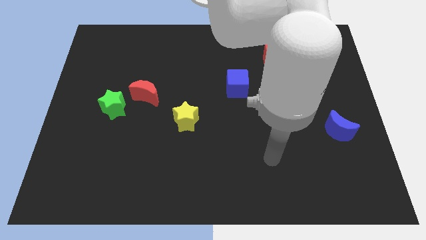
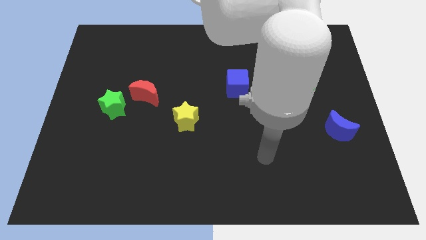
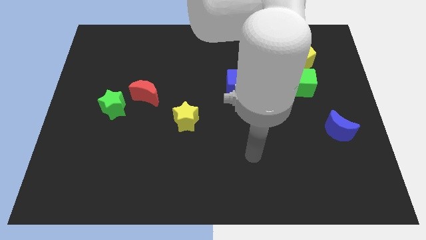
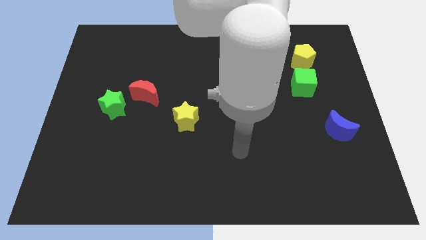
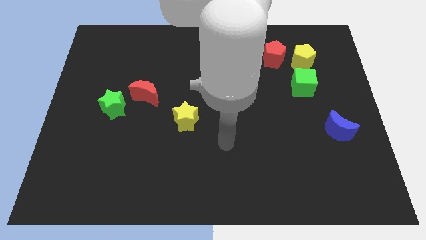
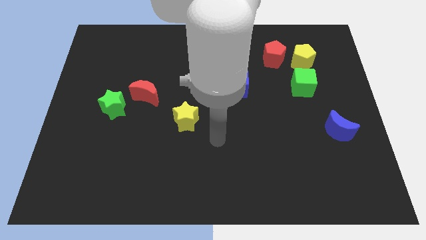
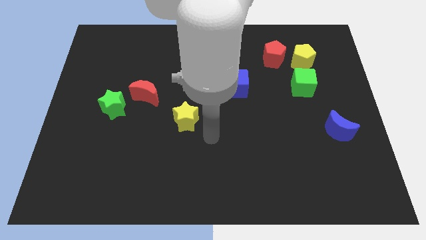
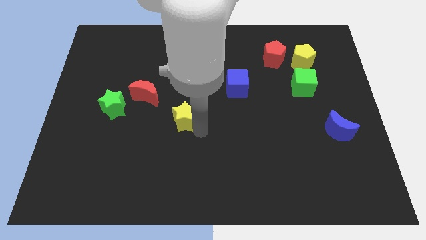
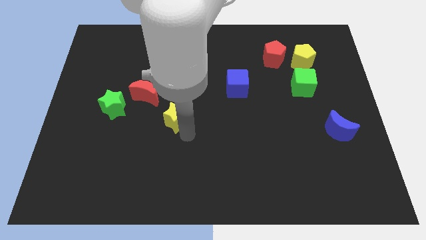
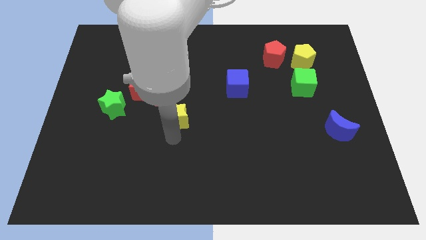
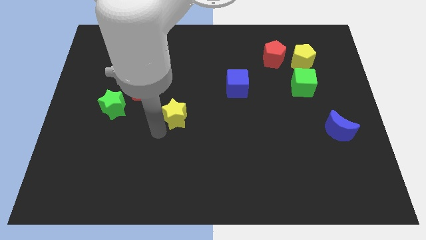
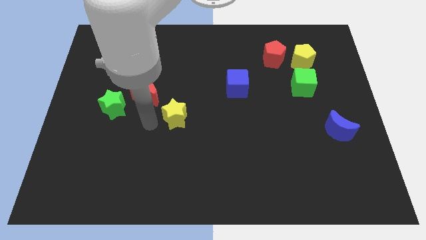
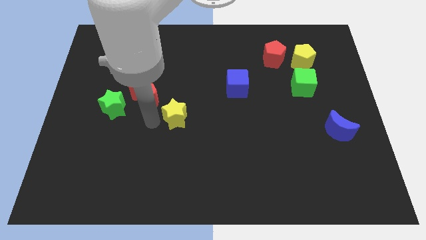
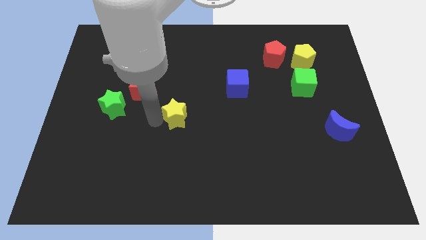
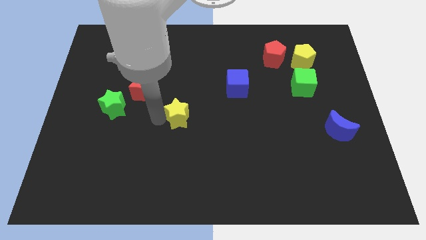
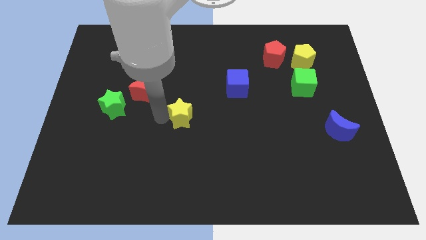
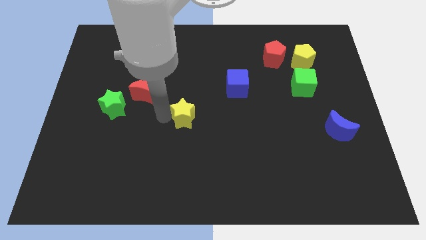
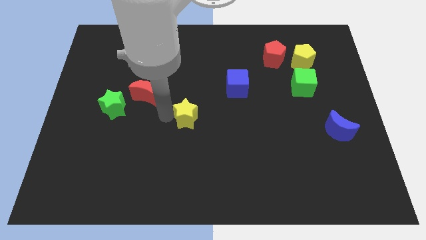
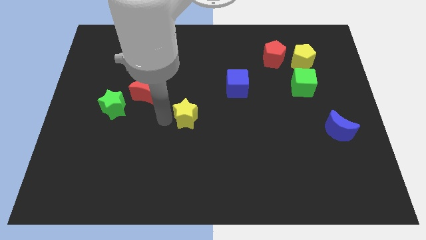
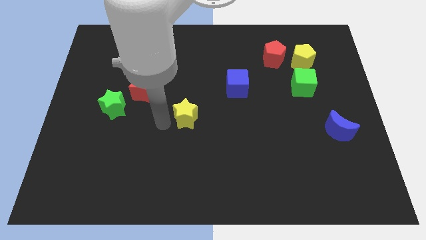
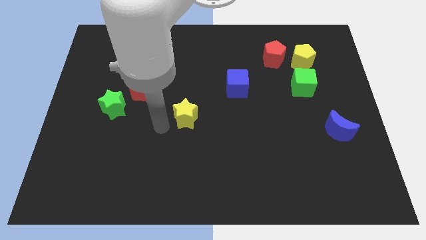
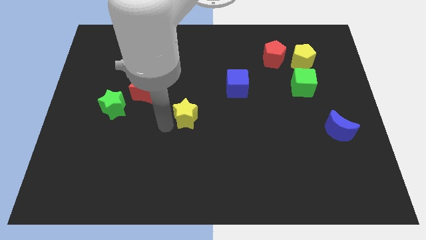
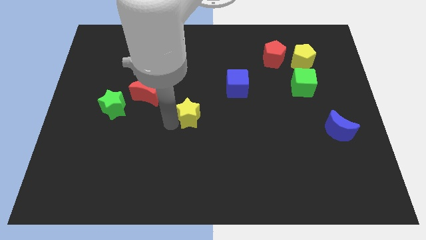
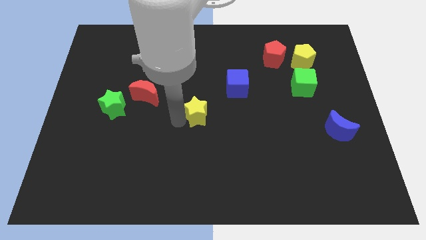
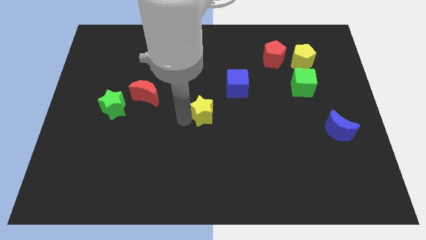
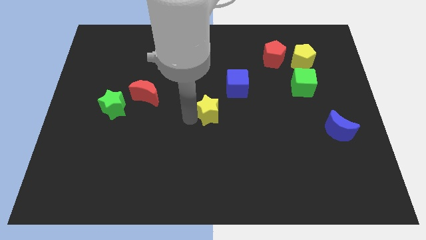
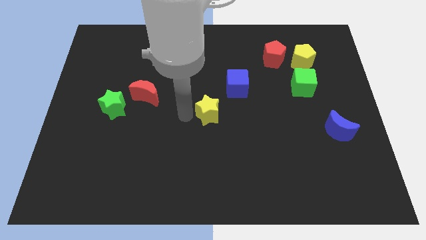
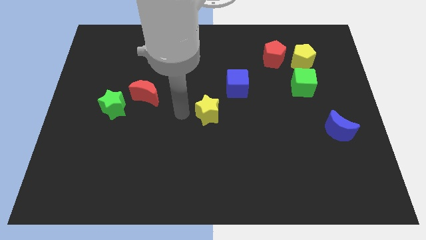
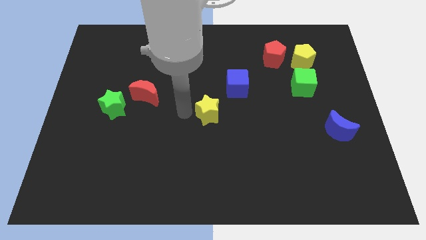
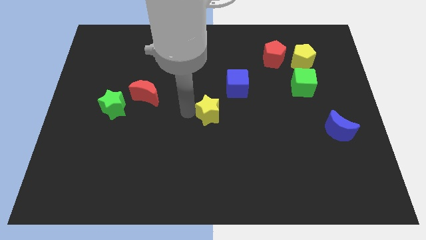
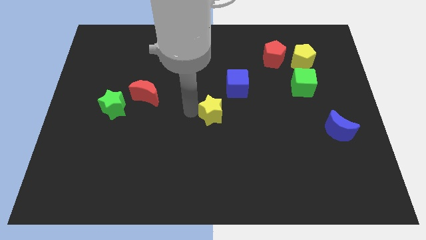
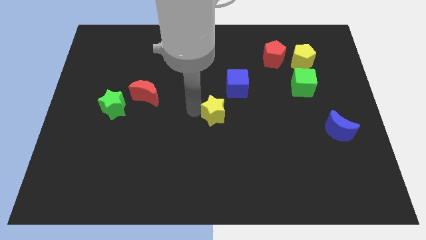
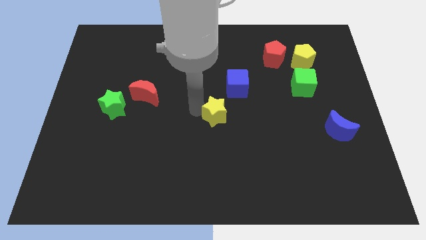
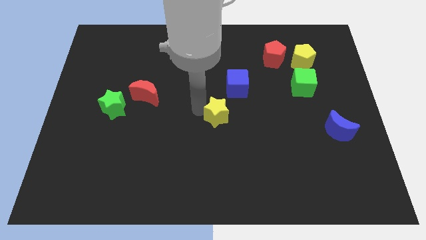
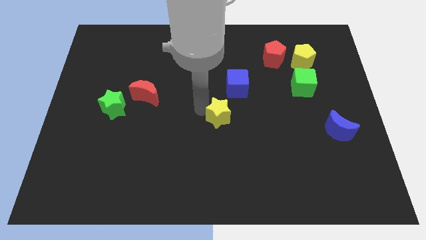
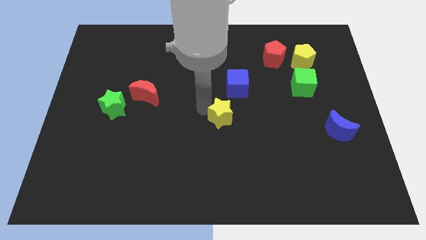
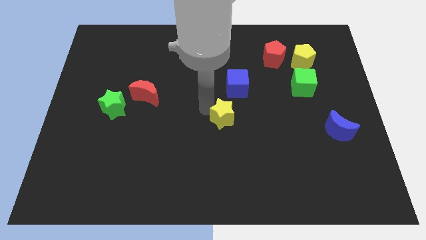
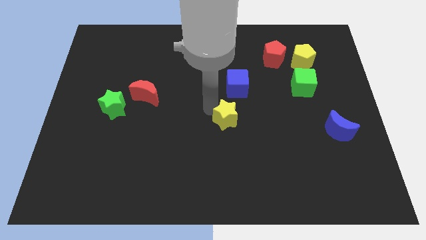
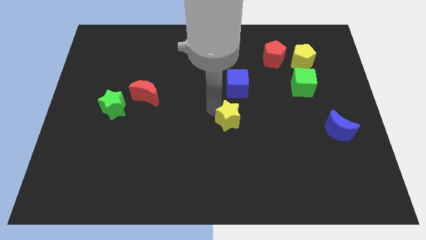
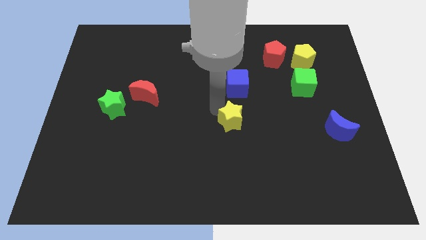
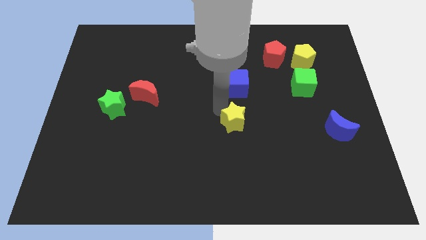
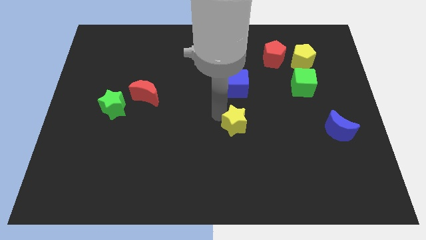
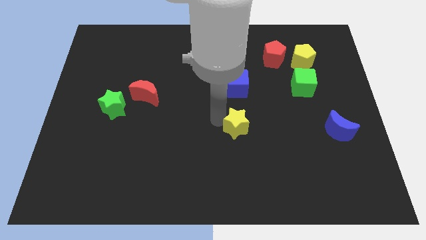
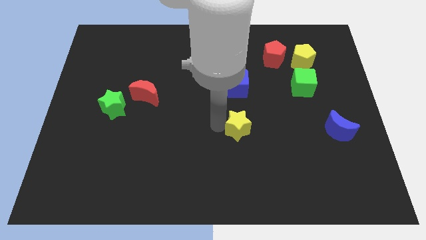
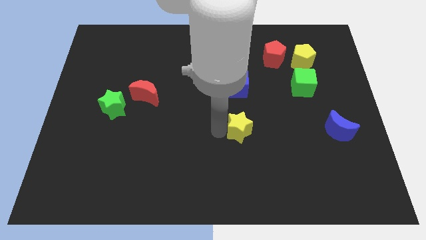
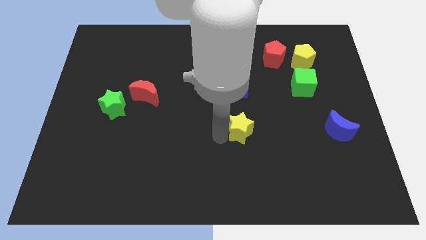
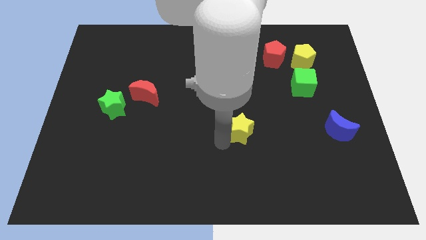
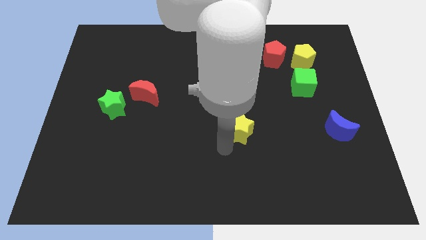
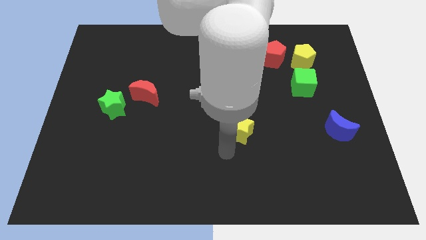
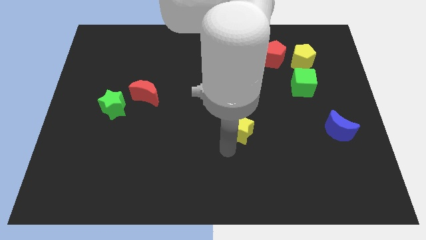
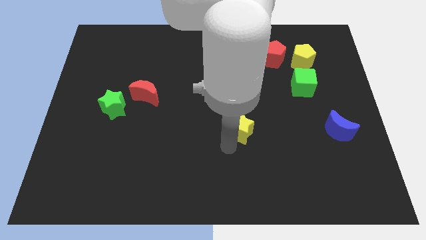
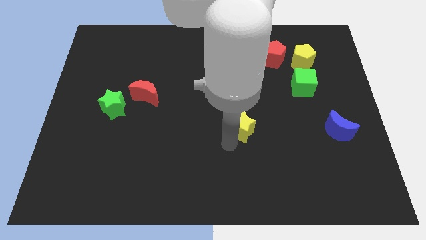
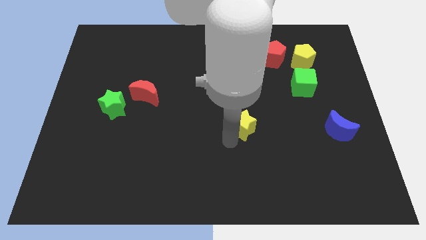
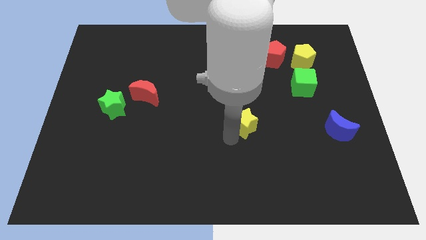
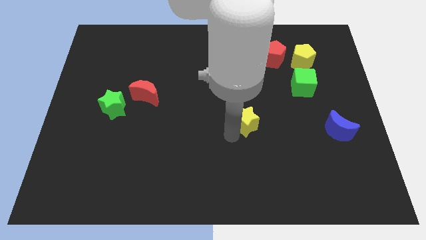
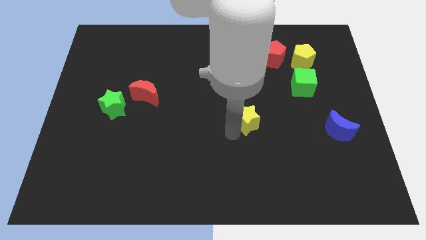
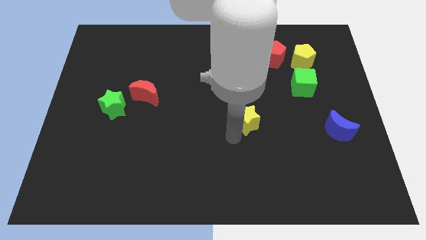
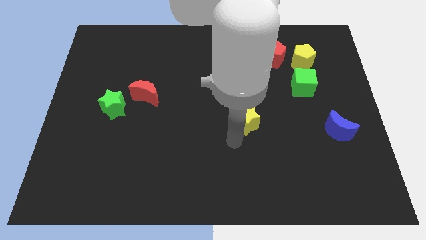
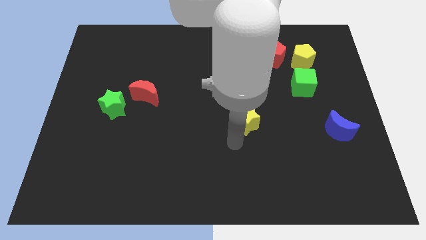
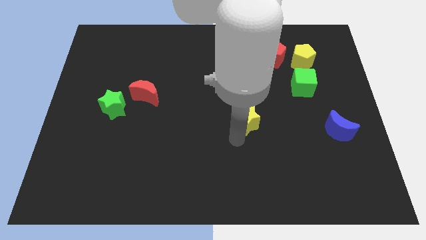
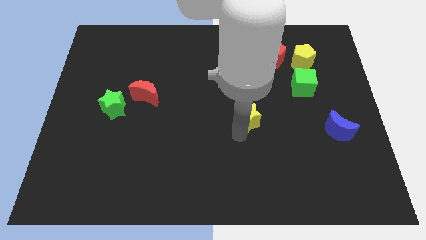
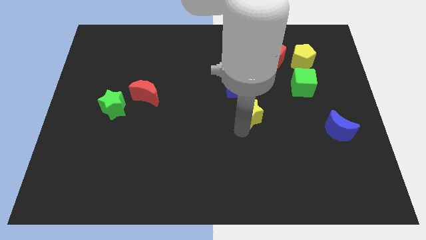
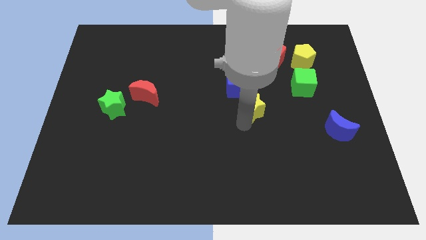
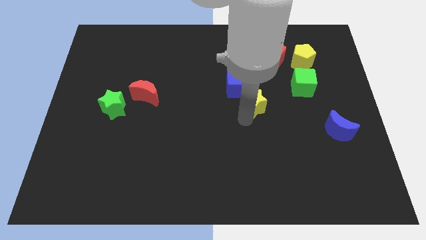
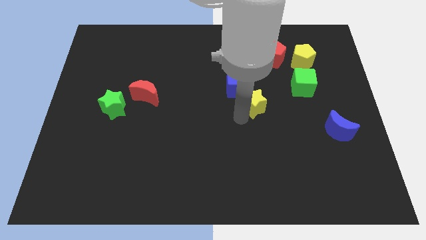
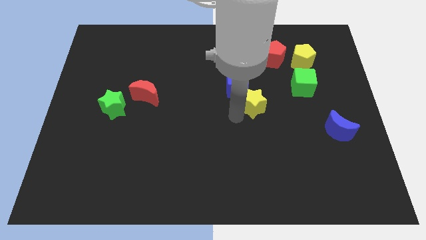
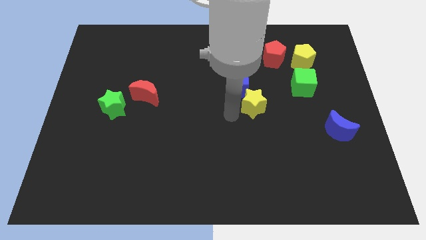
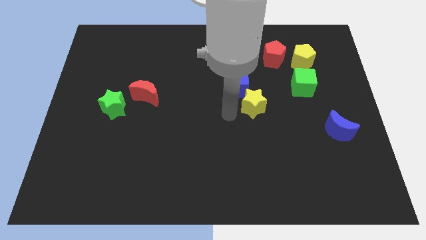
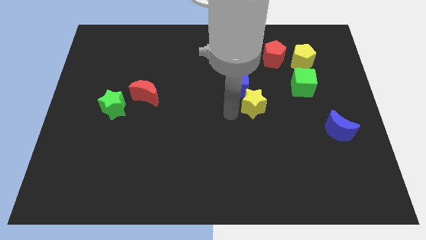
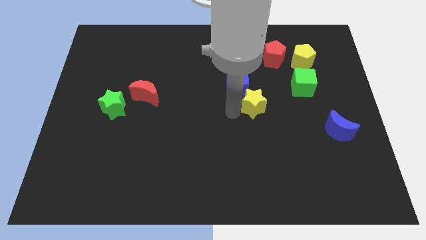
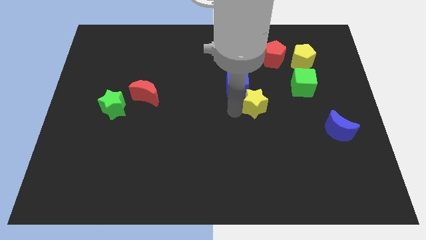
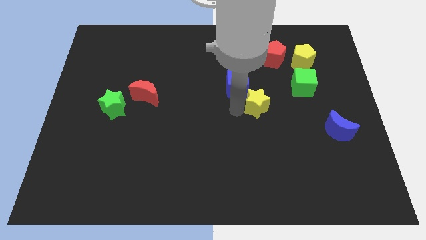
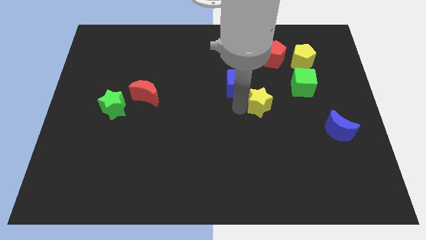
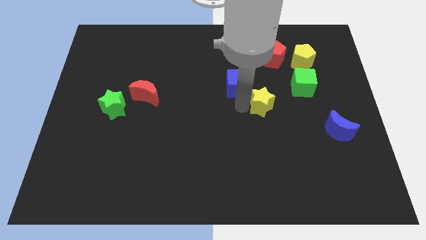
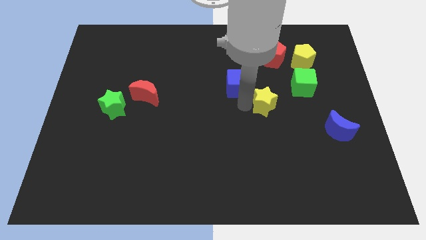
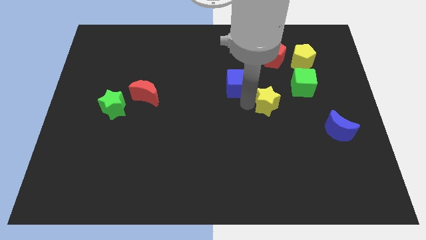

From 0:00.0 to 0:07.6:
put the yellow star to the bottom side of the red pentagon
